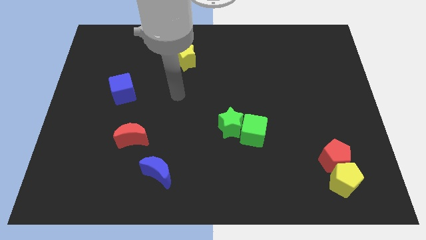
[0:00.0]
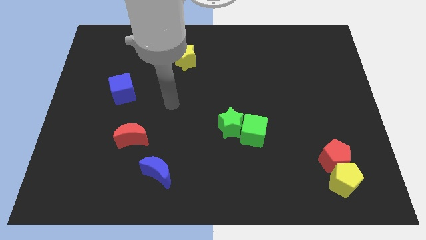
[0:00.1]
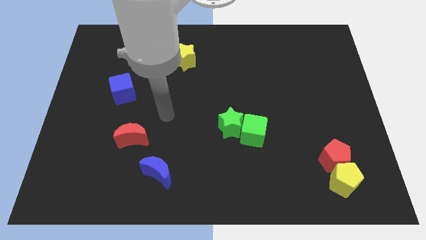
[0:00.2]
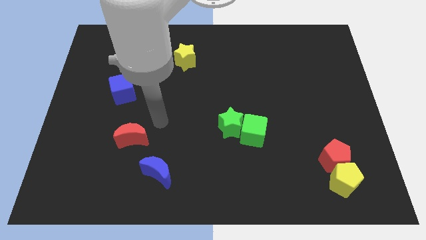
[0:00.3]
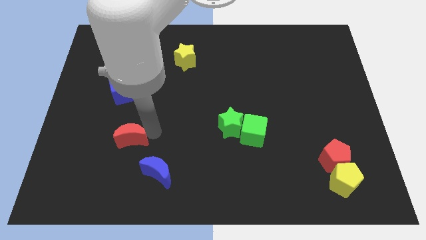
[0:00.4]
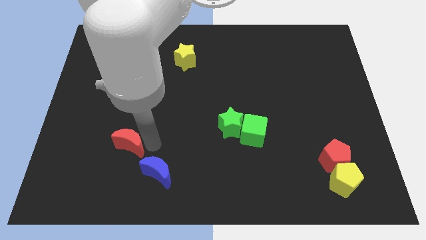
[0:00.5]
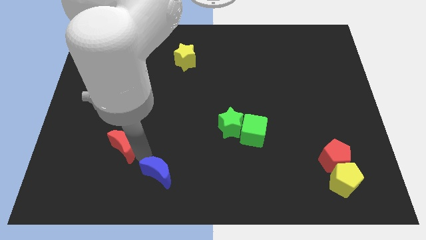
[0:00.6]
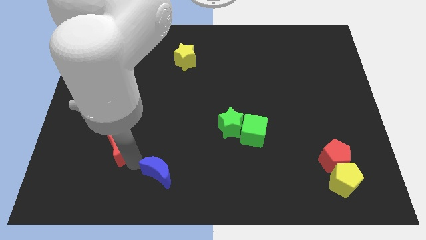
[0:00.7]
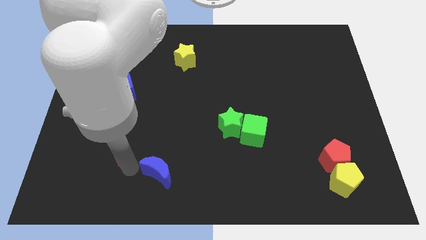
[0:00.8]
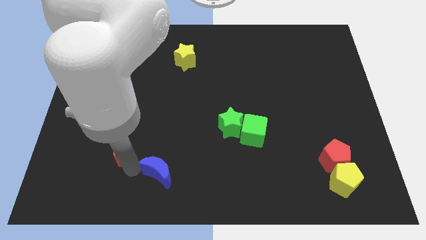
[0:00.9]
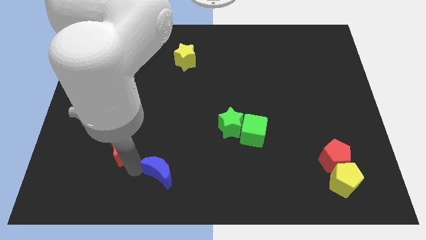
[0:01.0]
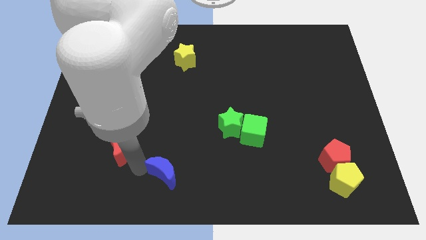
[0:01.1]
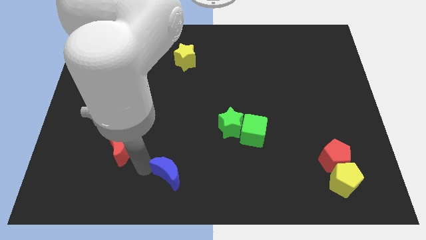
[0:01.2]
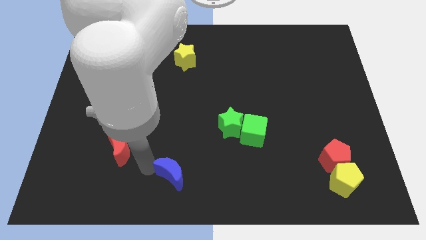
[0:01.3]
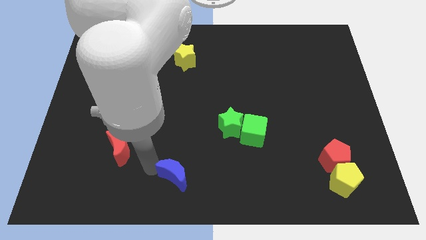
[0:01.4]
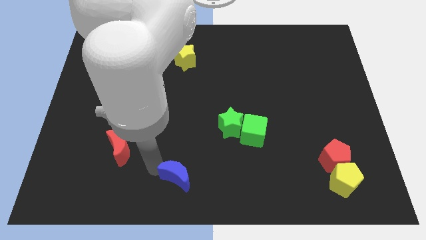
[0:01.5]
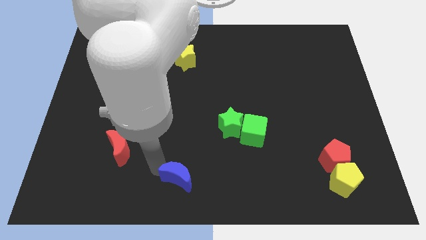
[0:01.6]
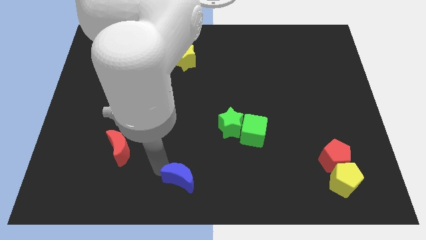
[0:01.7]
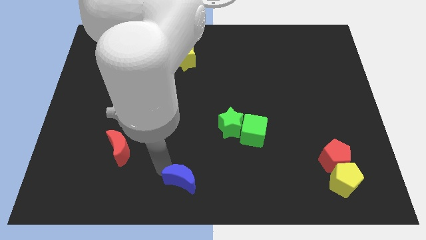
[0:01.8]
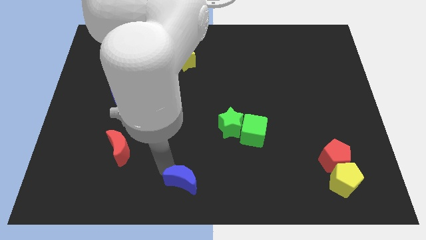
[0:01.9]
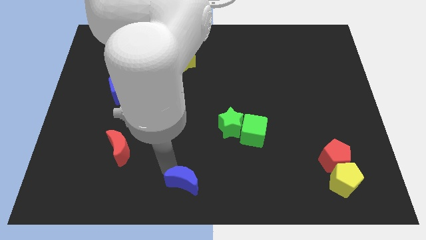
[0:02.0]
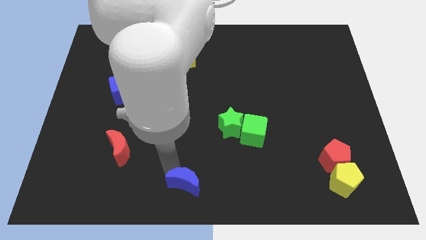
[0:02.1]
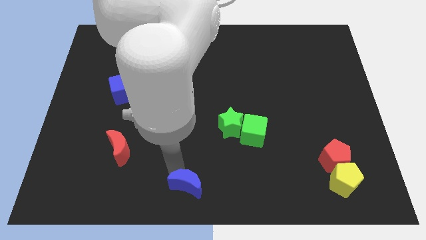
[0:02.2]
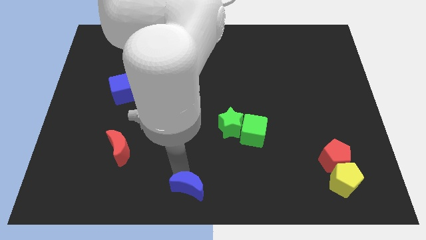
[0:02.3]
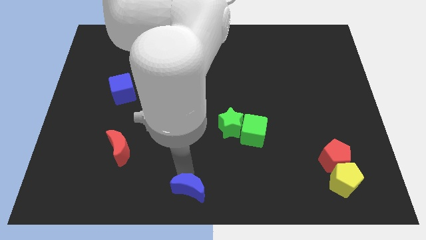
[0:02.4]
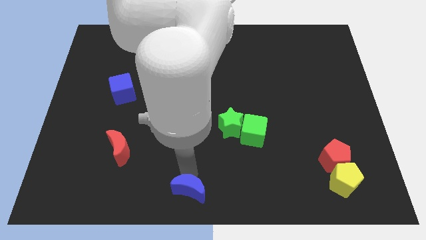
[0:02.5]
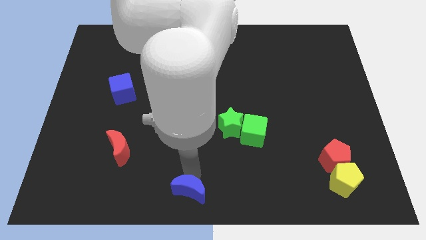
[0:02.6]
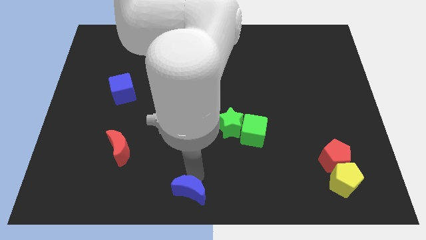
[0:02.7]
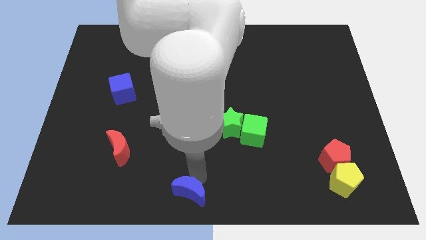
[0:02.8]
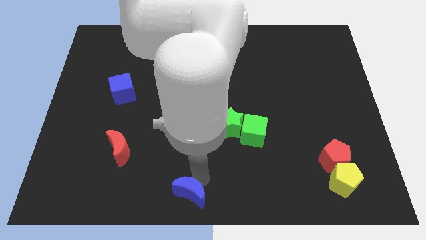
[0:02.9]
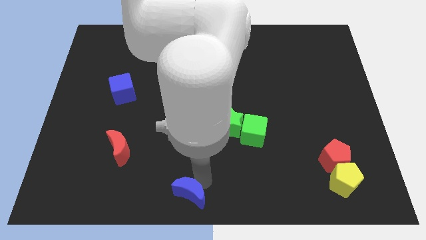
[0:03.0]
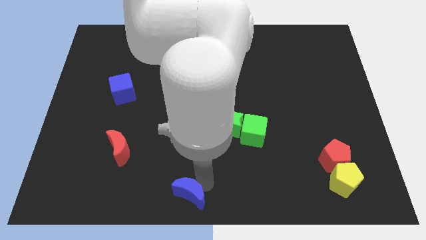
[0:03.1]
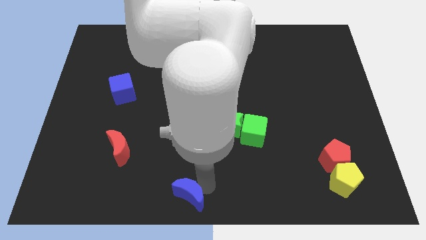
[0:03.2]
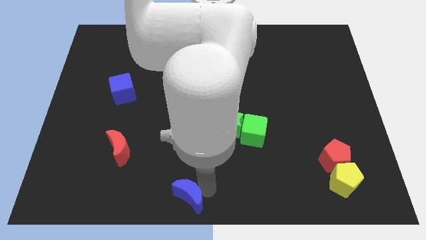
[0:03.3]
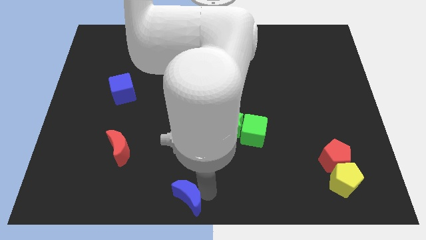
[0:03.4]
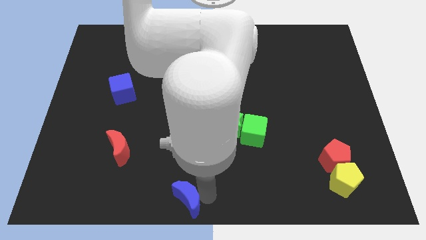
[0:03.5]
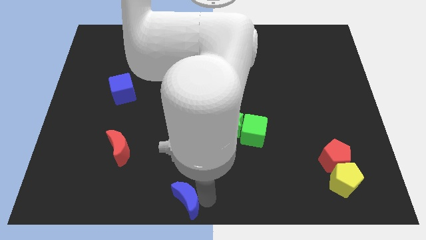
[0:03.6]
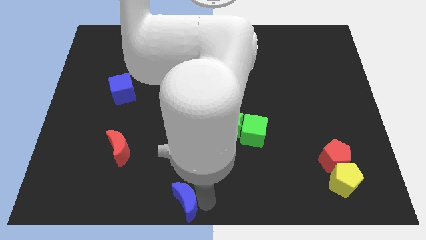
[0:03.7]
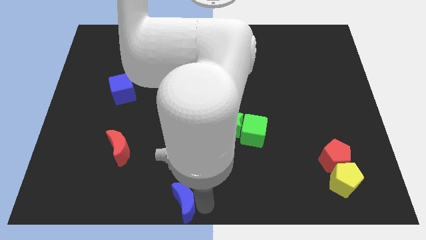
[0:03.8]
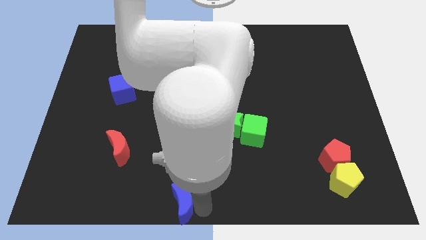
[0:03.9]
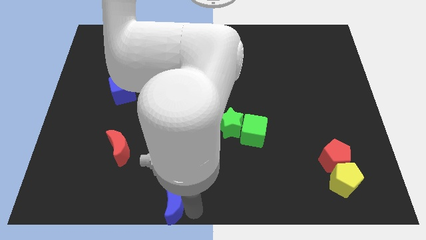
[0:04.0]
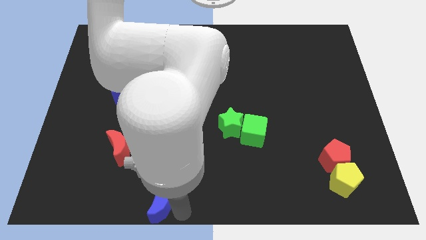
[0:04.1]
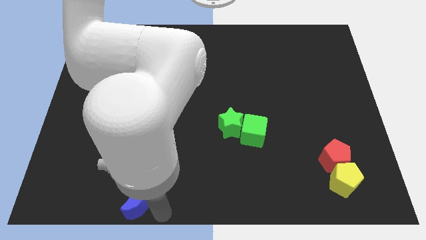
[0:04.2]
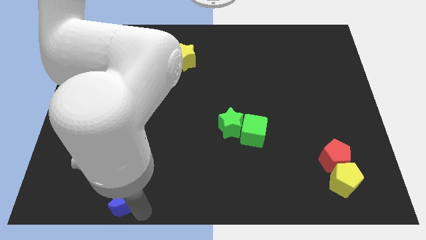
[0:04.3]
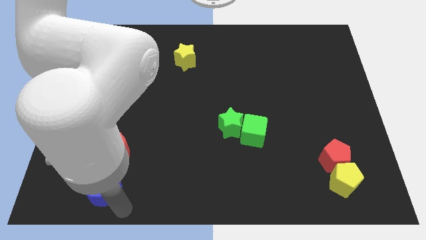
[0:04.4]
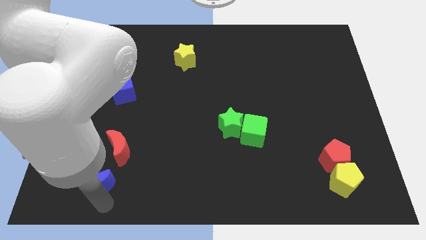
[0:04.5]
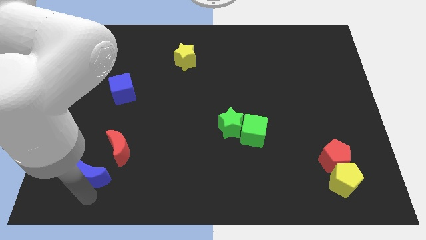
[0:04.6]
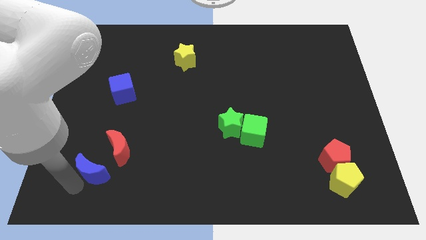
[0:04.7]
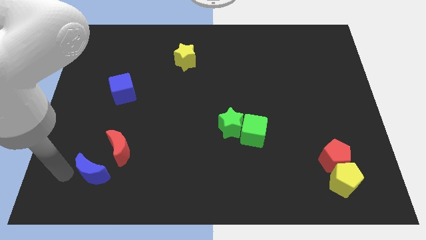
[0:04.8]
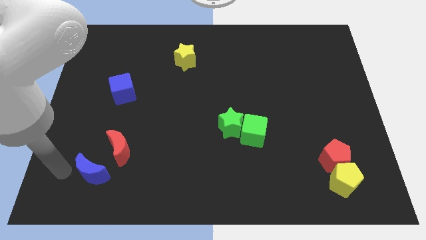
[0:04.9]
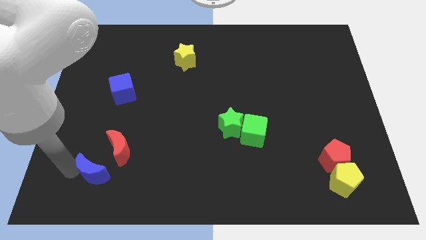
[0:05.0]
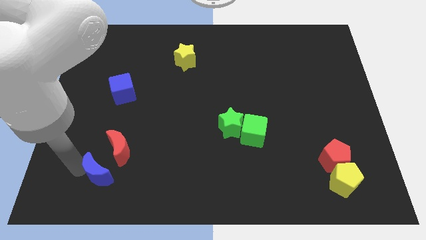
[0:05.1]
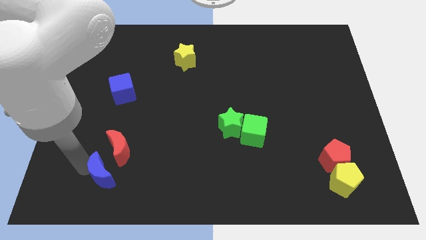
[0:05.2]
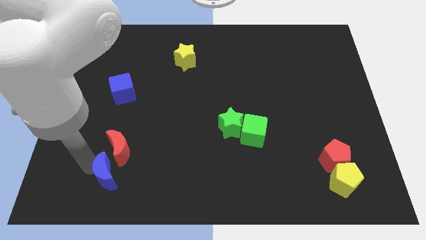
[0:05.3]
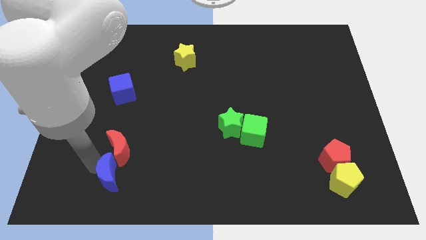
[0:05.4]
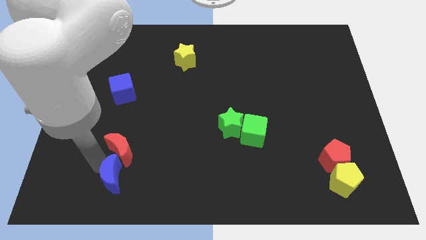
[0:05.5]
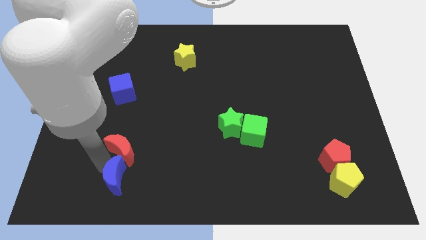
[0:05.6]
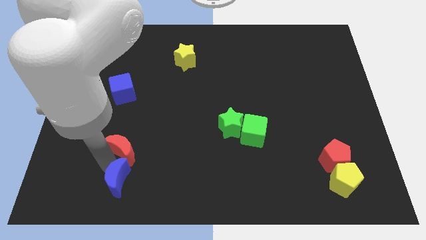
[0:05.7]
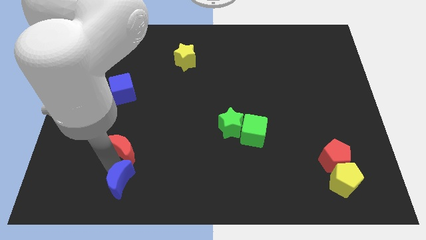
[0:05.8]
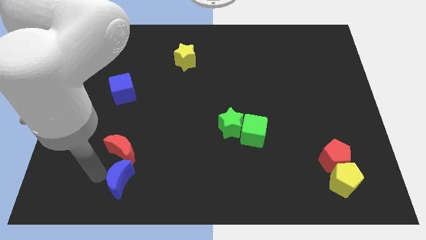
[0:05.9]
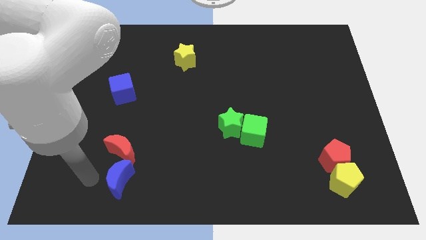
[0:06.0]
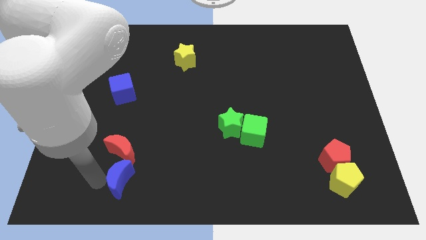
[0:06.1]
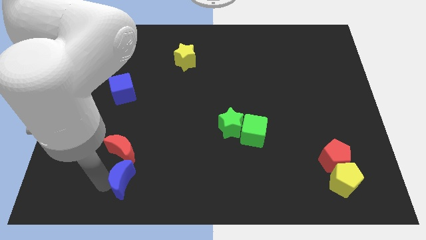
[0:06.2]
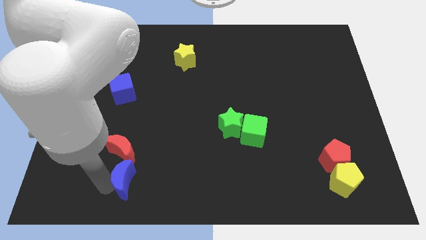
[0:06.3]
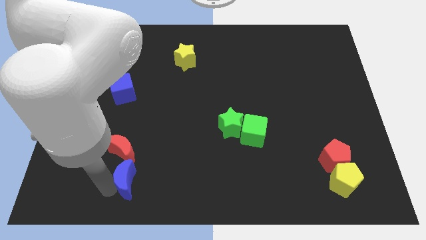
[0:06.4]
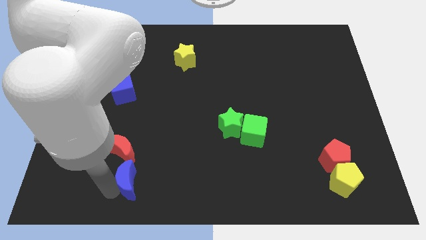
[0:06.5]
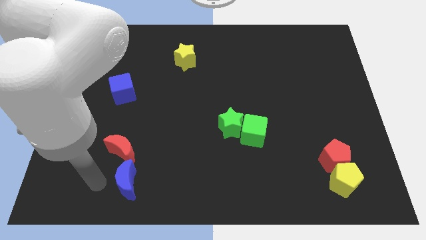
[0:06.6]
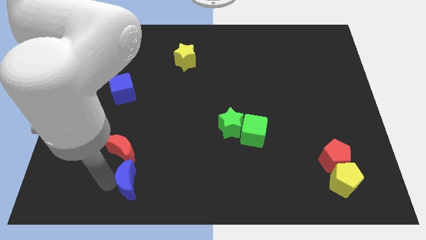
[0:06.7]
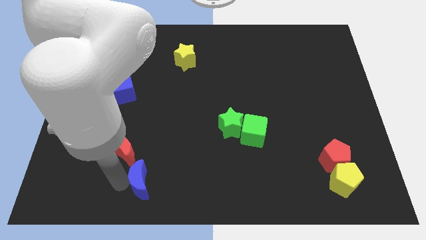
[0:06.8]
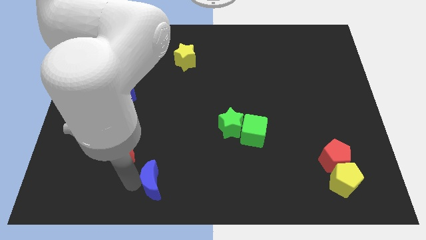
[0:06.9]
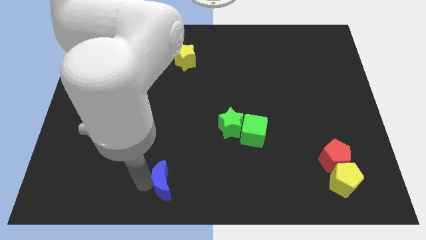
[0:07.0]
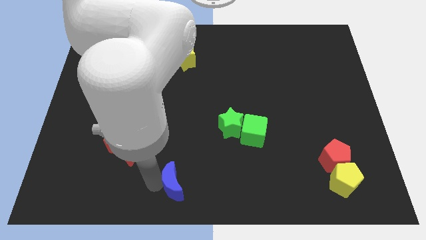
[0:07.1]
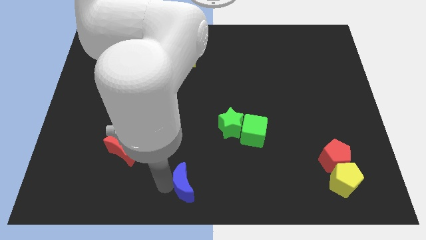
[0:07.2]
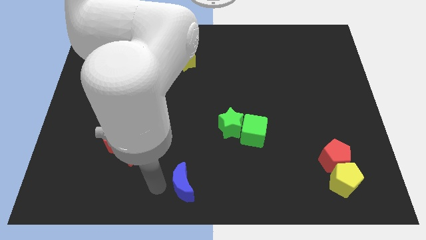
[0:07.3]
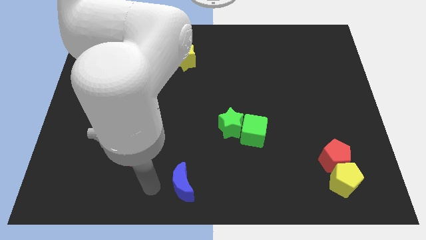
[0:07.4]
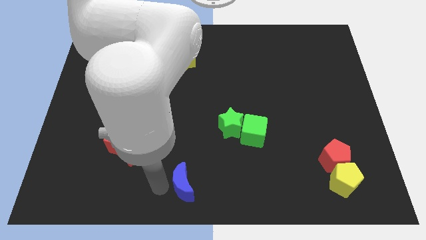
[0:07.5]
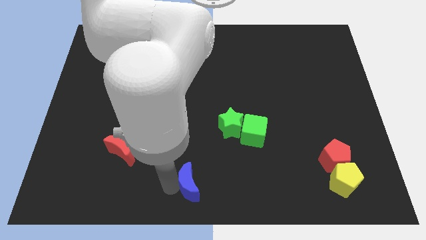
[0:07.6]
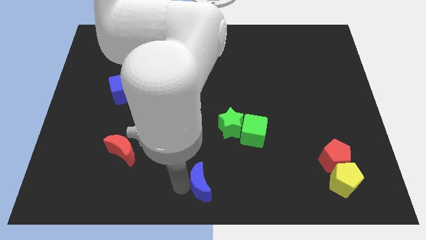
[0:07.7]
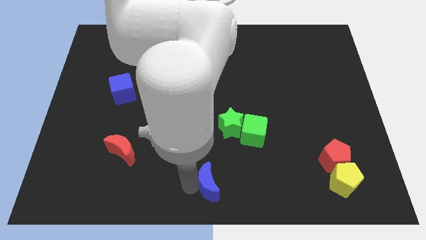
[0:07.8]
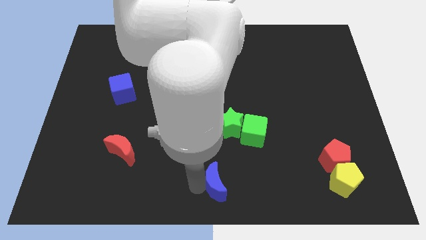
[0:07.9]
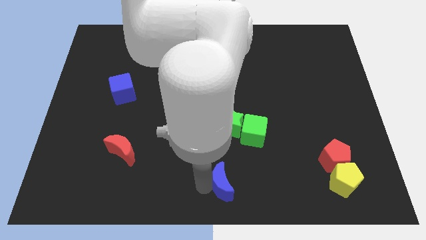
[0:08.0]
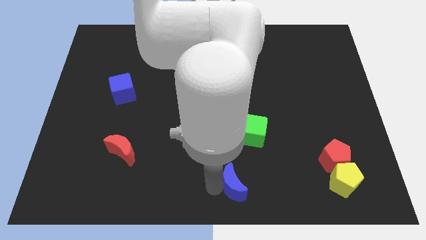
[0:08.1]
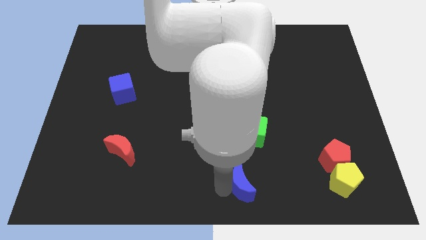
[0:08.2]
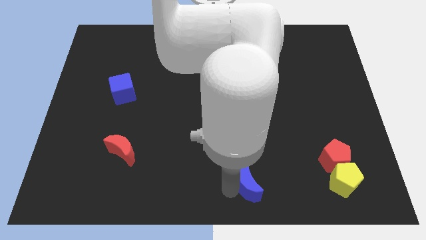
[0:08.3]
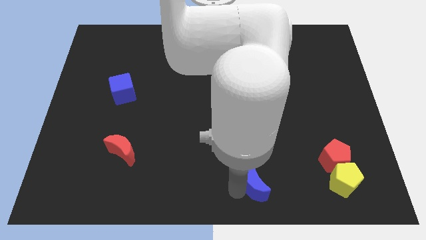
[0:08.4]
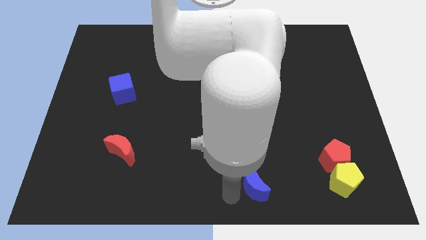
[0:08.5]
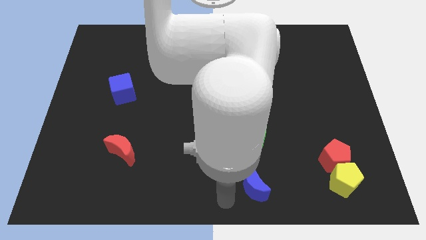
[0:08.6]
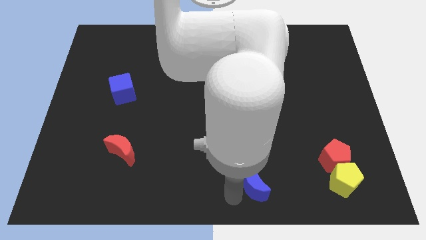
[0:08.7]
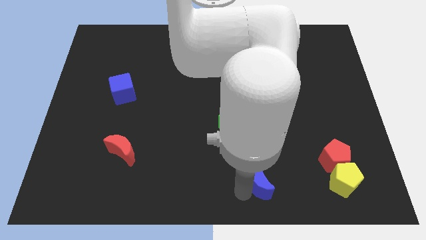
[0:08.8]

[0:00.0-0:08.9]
slide the blue moon to the right
